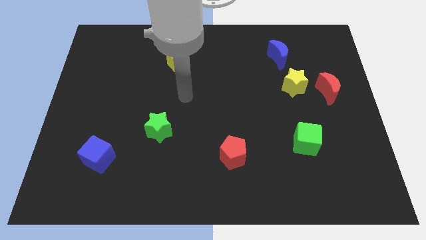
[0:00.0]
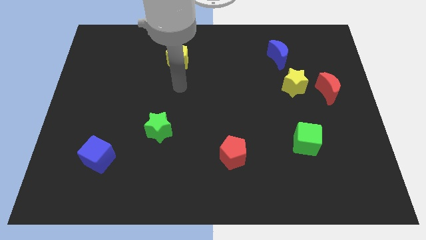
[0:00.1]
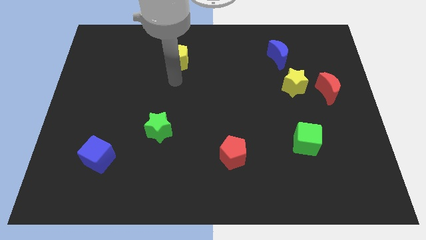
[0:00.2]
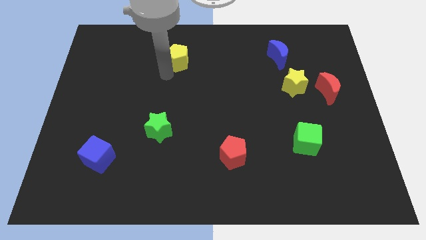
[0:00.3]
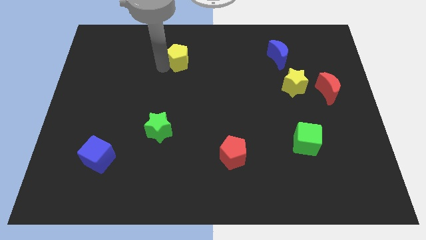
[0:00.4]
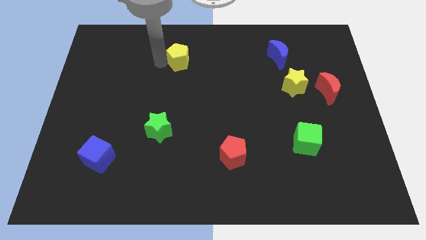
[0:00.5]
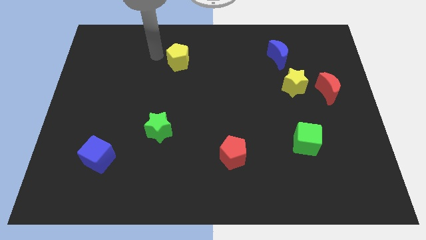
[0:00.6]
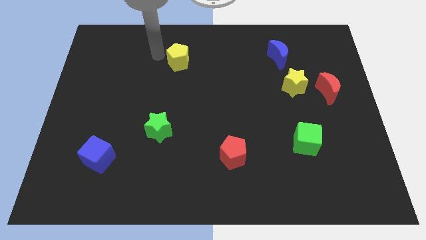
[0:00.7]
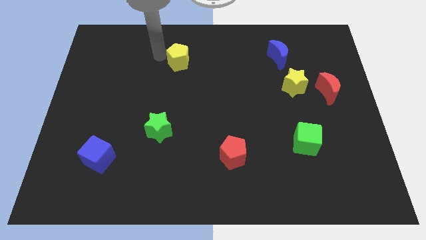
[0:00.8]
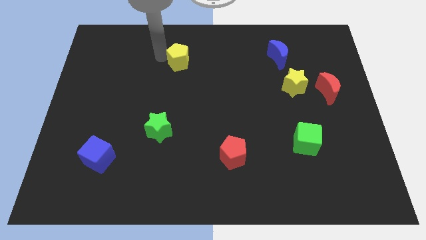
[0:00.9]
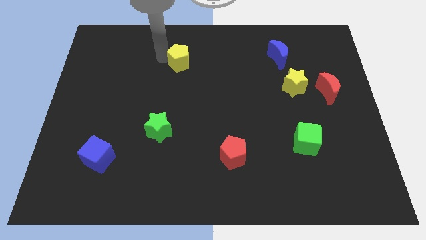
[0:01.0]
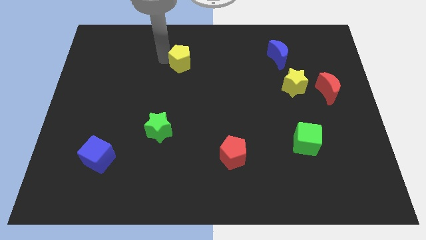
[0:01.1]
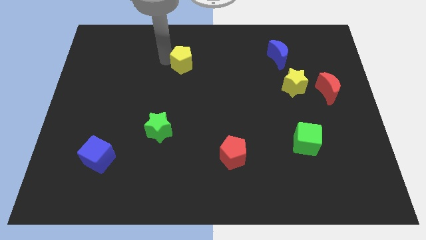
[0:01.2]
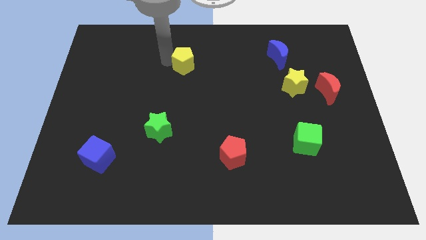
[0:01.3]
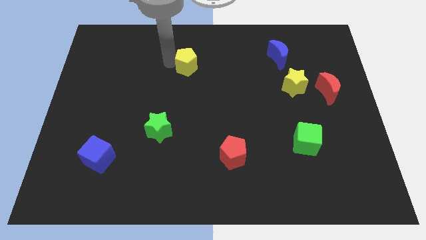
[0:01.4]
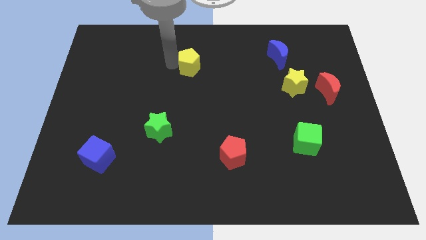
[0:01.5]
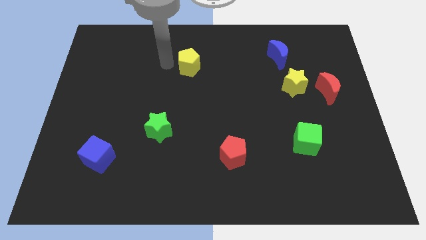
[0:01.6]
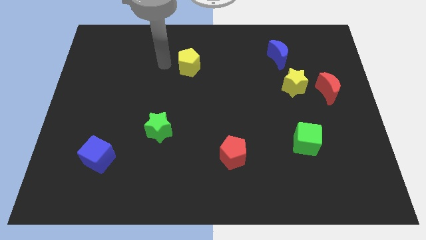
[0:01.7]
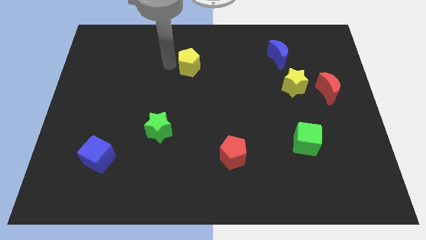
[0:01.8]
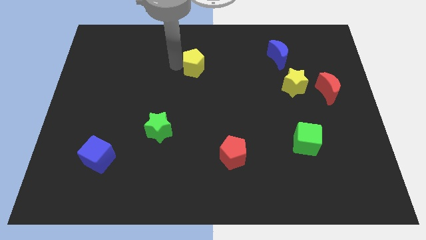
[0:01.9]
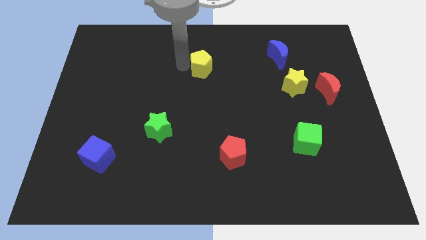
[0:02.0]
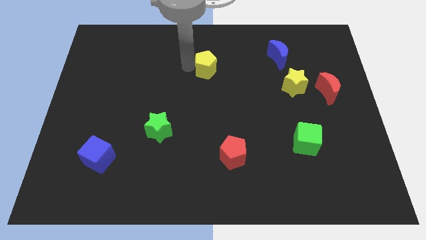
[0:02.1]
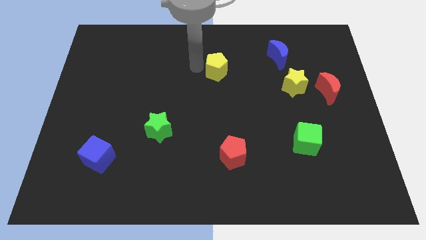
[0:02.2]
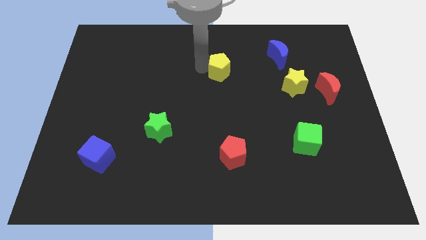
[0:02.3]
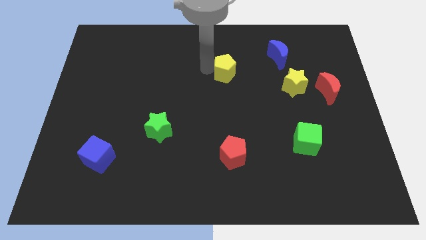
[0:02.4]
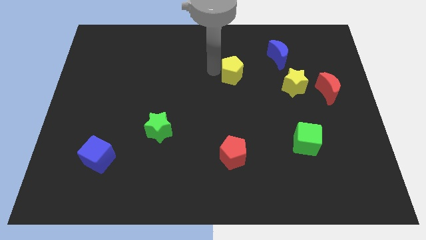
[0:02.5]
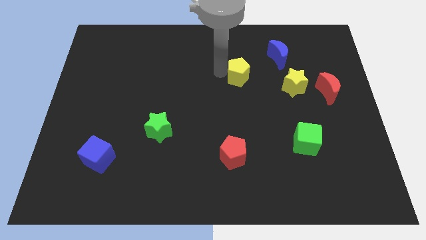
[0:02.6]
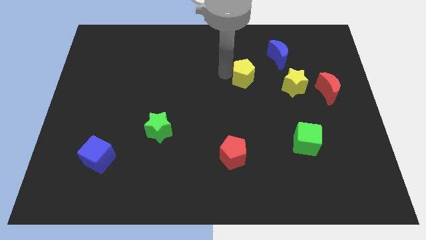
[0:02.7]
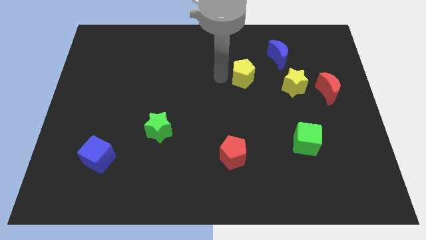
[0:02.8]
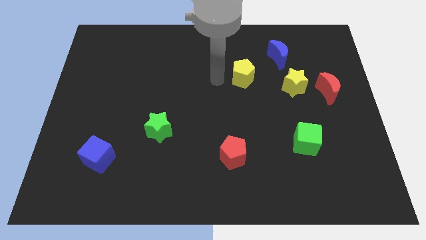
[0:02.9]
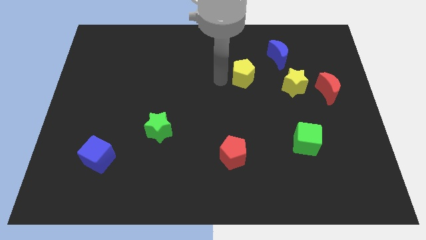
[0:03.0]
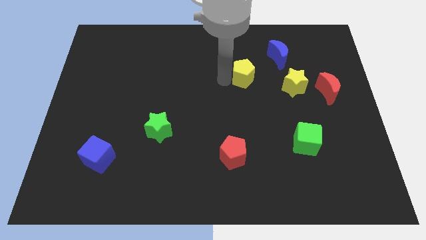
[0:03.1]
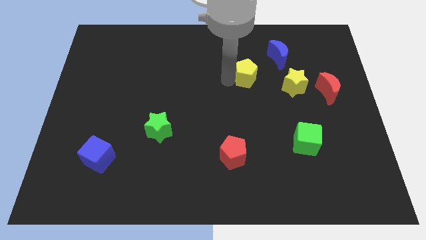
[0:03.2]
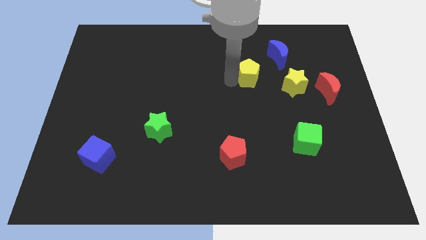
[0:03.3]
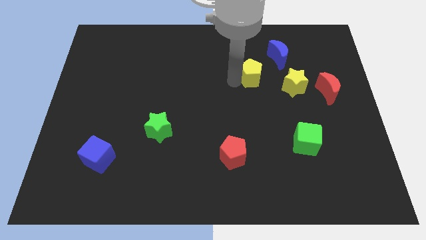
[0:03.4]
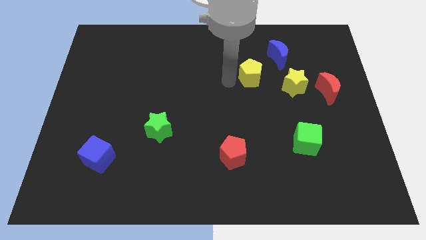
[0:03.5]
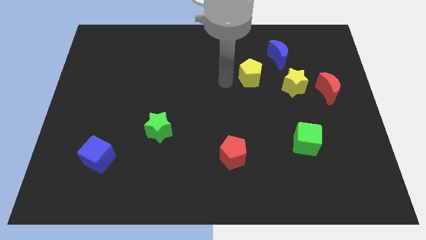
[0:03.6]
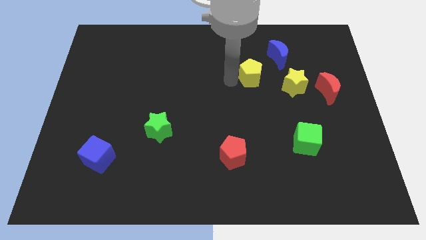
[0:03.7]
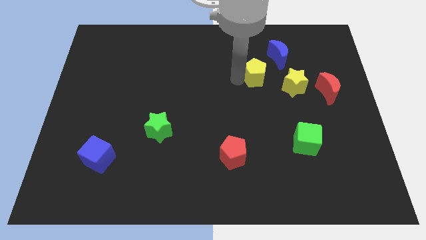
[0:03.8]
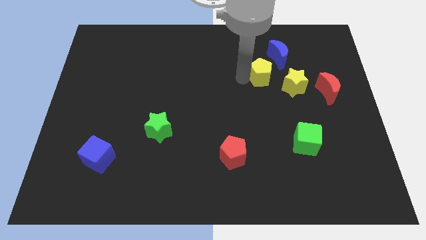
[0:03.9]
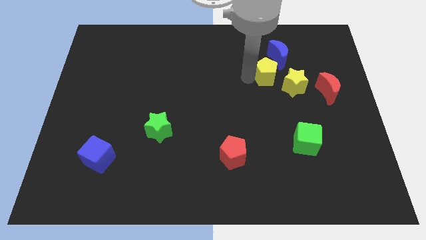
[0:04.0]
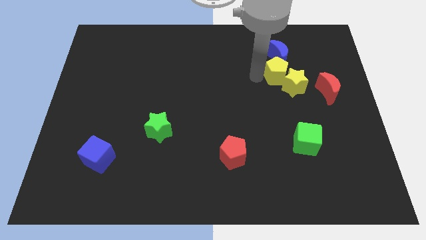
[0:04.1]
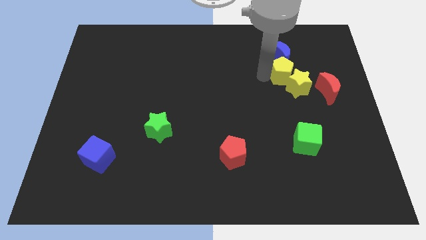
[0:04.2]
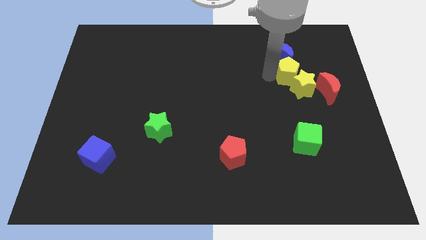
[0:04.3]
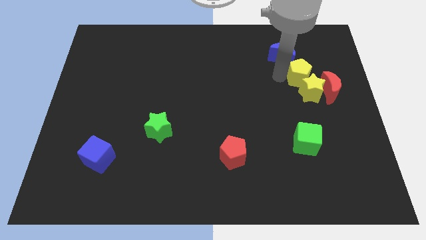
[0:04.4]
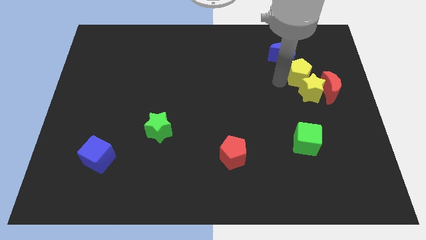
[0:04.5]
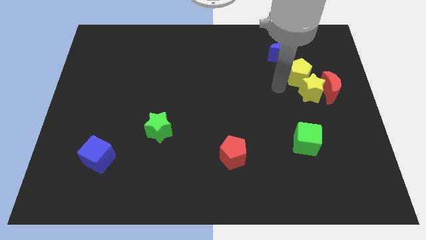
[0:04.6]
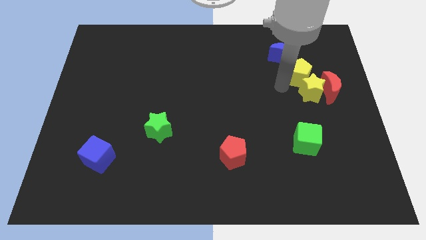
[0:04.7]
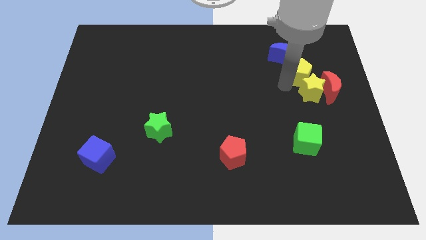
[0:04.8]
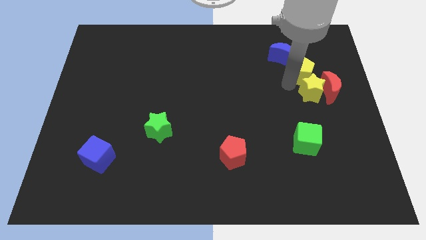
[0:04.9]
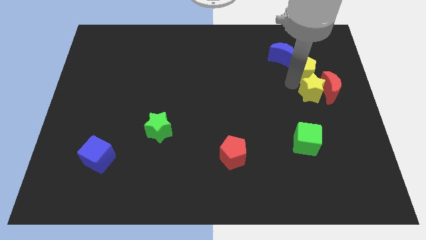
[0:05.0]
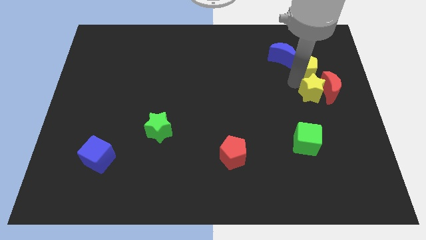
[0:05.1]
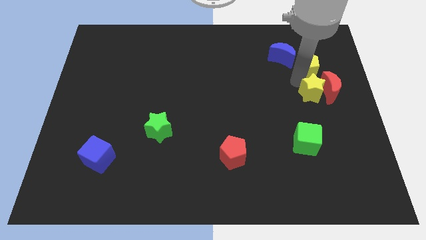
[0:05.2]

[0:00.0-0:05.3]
slide the yellow pentagon to the top of the red moon

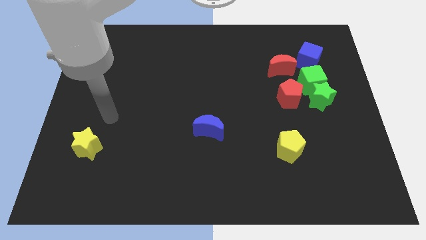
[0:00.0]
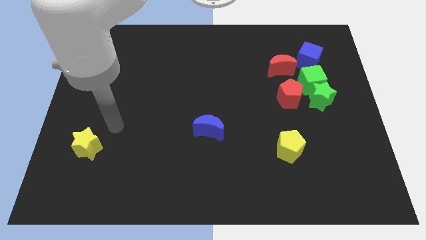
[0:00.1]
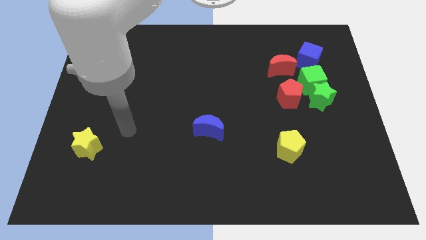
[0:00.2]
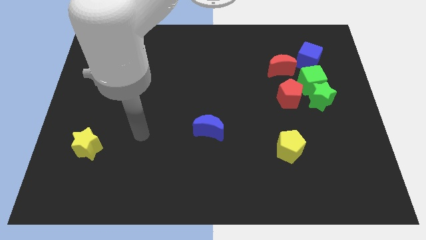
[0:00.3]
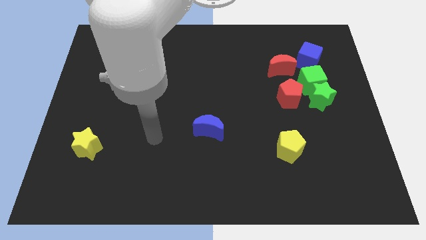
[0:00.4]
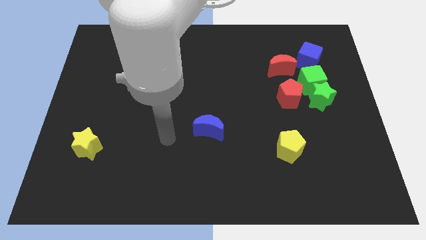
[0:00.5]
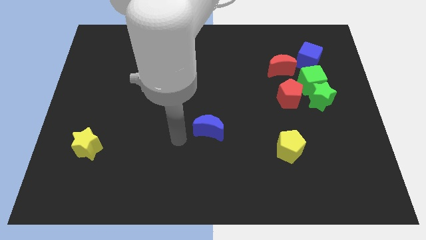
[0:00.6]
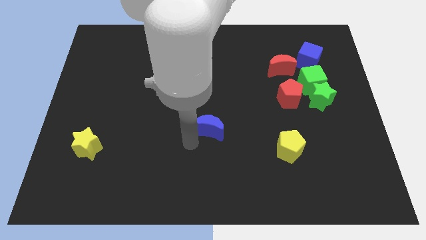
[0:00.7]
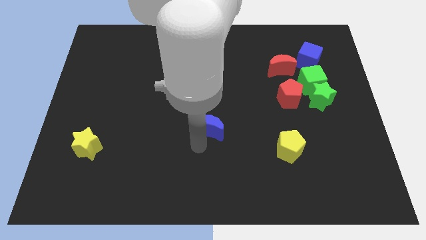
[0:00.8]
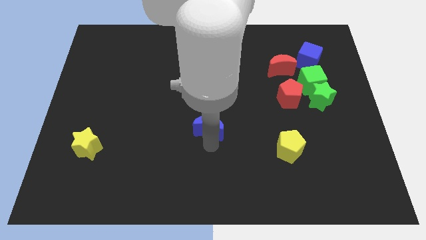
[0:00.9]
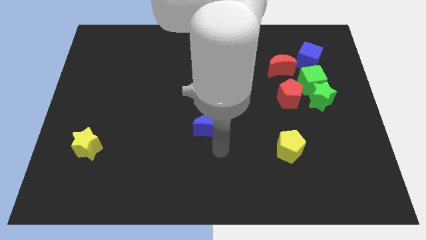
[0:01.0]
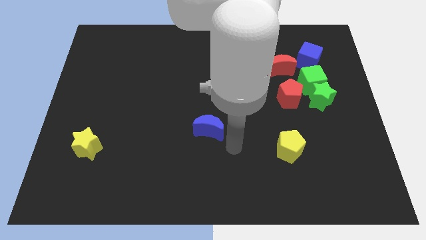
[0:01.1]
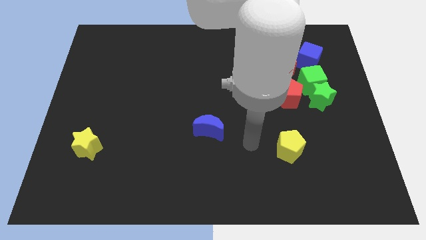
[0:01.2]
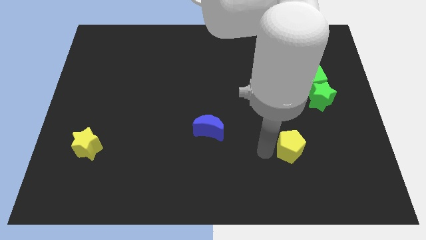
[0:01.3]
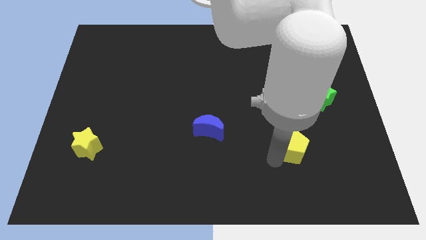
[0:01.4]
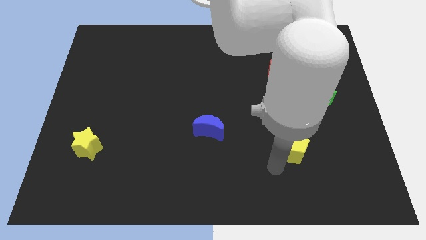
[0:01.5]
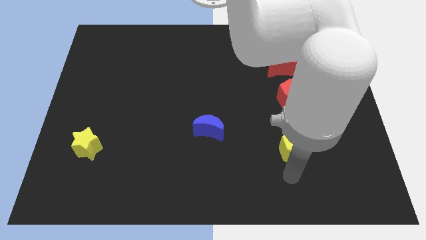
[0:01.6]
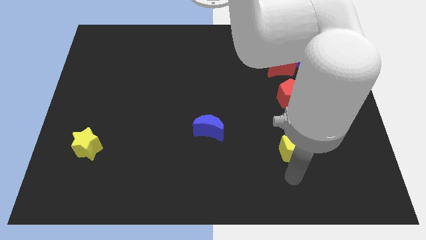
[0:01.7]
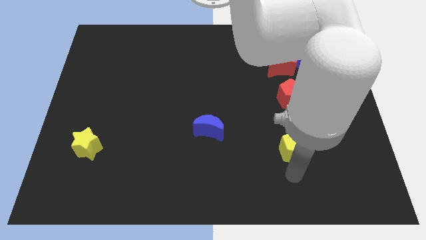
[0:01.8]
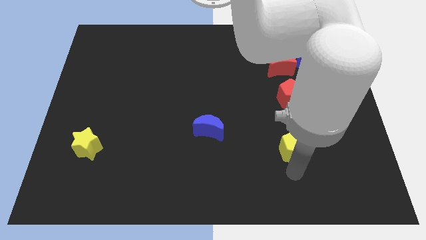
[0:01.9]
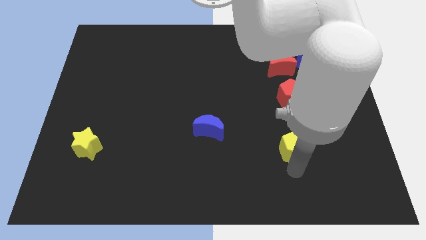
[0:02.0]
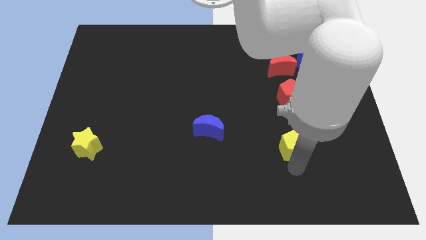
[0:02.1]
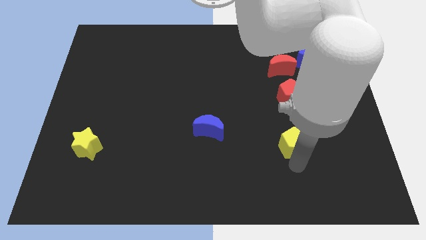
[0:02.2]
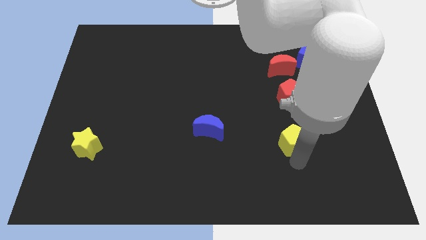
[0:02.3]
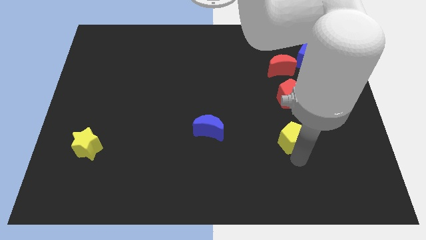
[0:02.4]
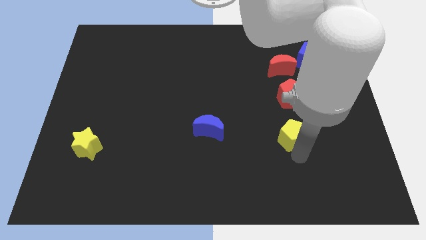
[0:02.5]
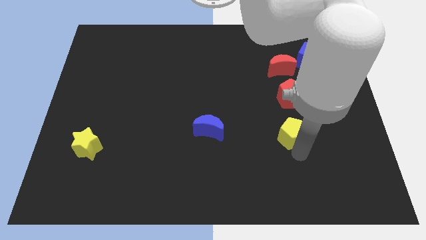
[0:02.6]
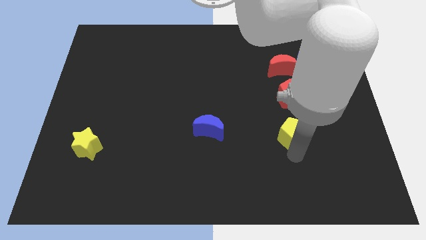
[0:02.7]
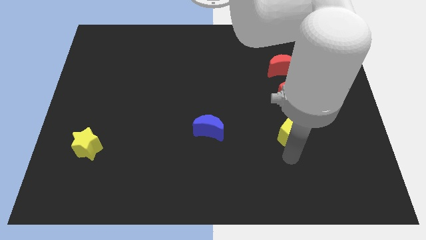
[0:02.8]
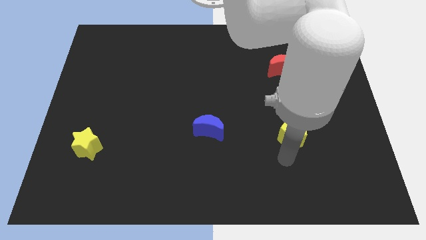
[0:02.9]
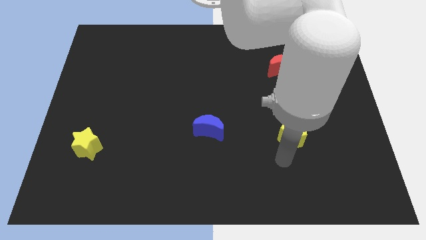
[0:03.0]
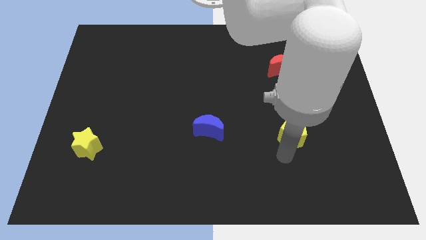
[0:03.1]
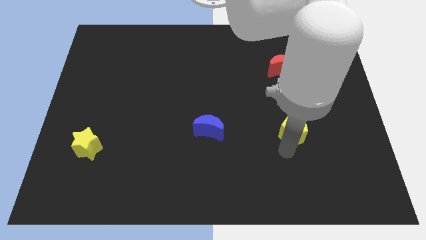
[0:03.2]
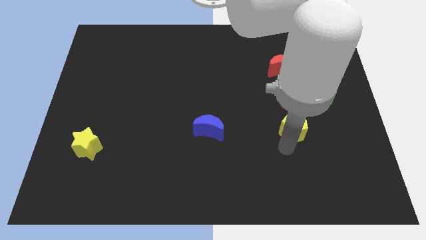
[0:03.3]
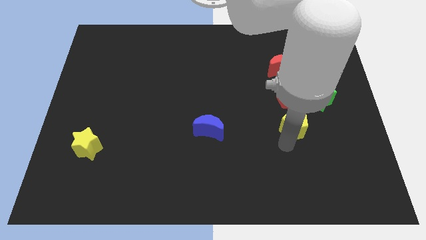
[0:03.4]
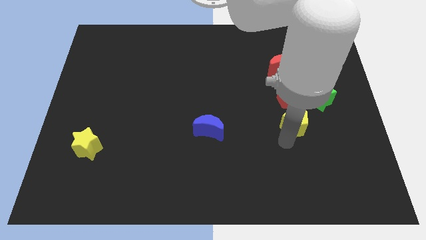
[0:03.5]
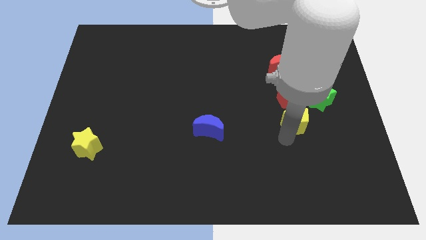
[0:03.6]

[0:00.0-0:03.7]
slide the yellow pentagon diagonally down and to the right of the red pentagon
